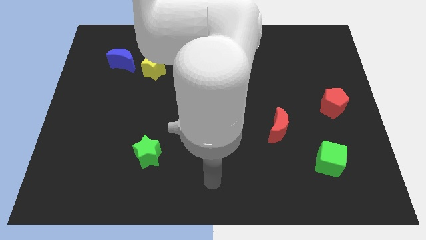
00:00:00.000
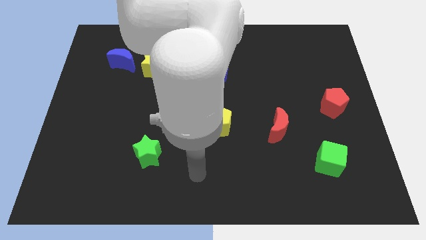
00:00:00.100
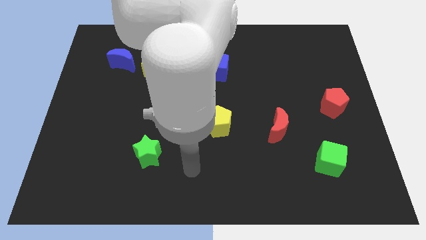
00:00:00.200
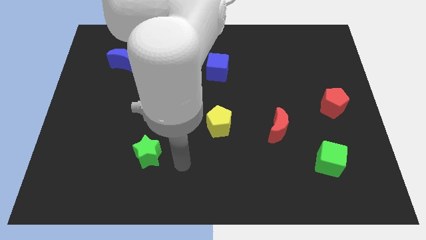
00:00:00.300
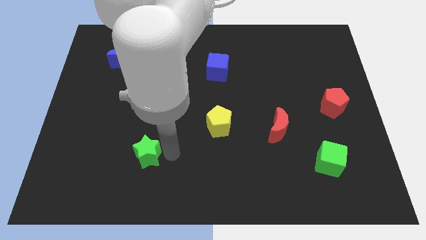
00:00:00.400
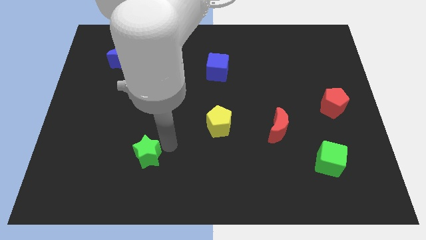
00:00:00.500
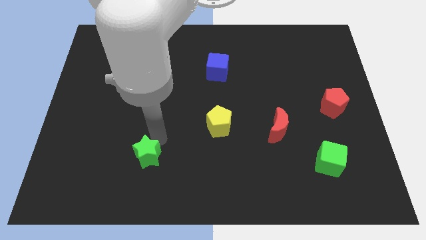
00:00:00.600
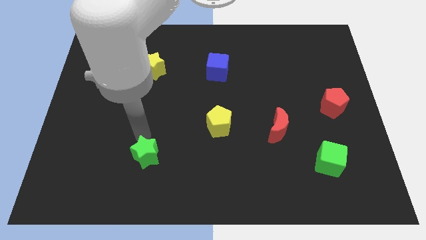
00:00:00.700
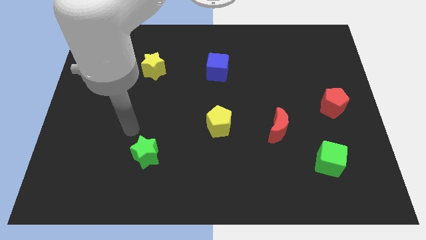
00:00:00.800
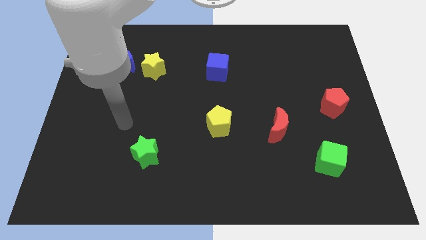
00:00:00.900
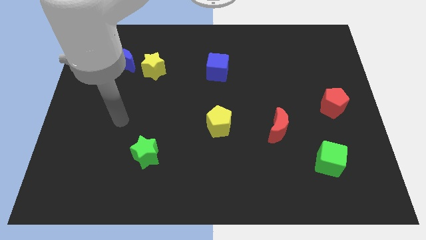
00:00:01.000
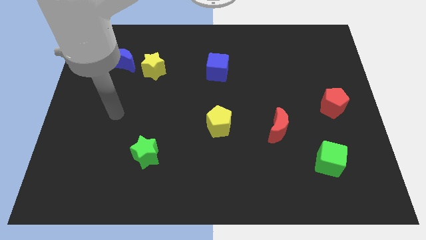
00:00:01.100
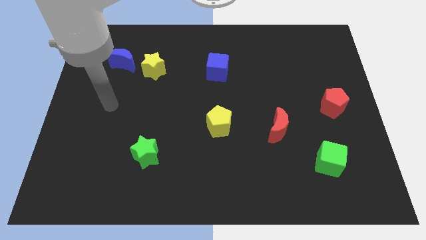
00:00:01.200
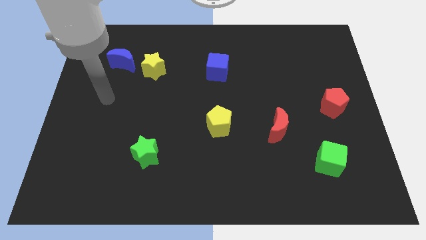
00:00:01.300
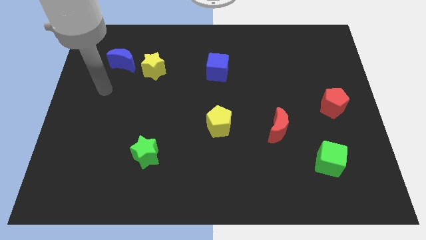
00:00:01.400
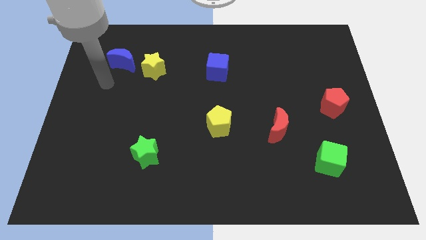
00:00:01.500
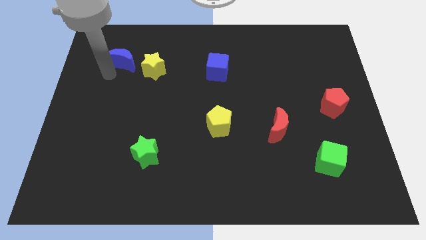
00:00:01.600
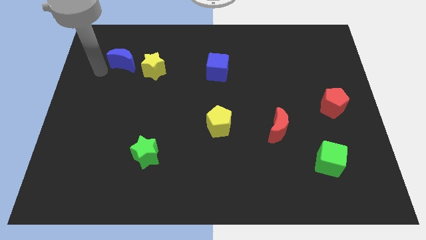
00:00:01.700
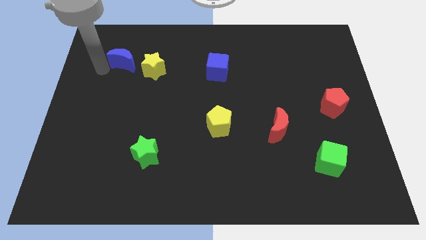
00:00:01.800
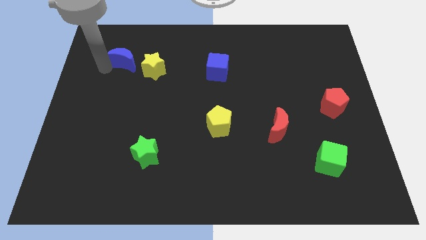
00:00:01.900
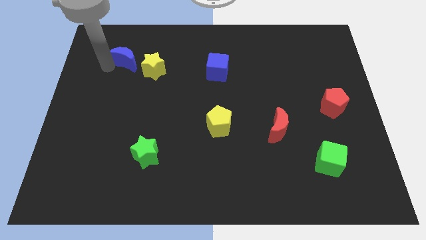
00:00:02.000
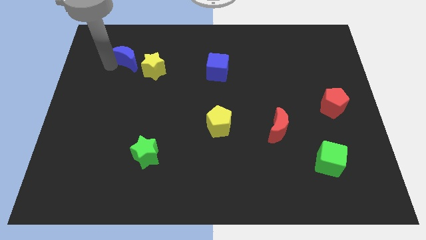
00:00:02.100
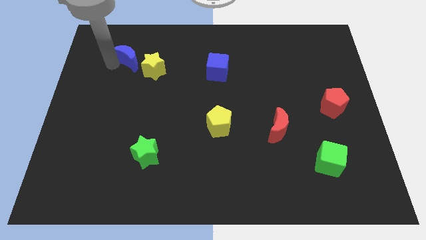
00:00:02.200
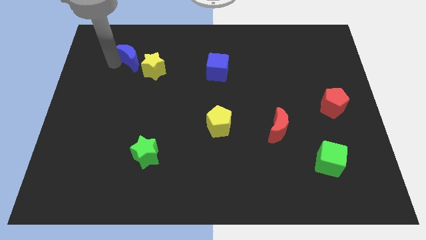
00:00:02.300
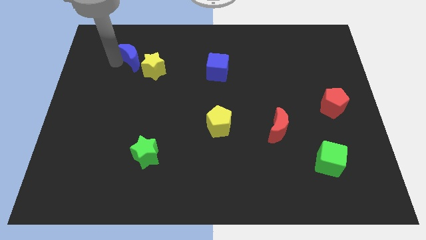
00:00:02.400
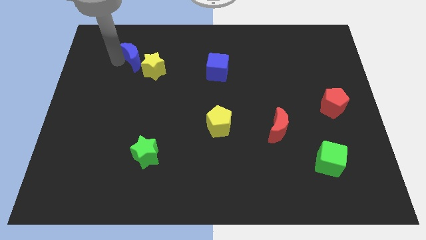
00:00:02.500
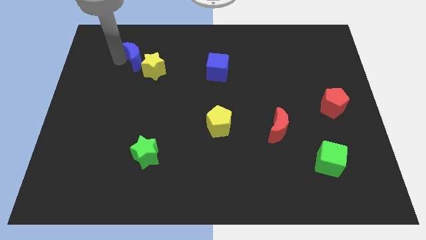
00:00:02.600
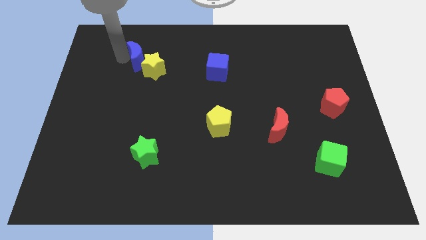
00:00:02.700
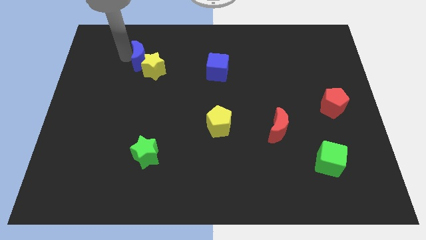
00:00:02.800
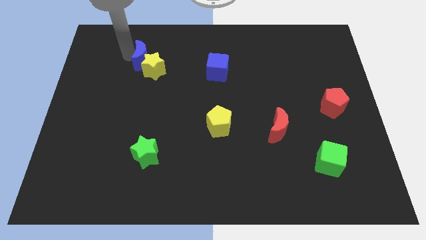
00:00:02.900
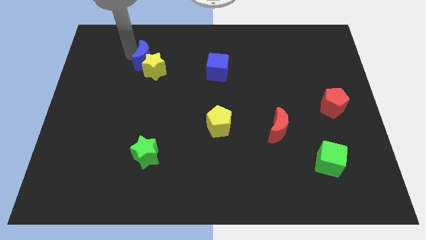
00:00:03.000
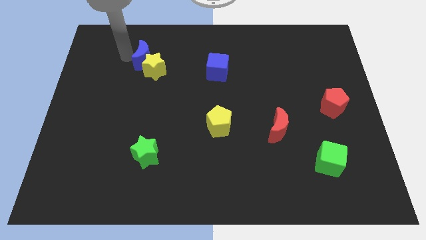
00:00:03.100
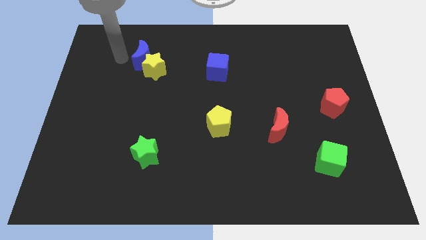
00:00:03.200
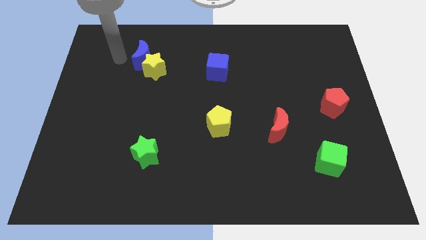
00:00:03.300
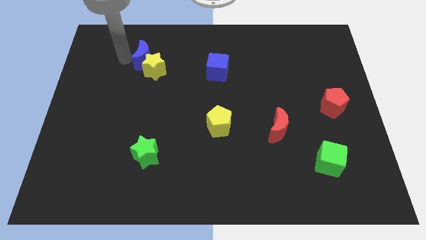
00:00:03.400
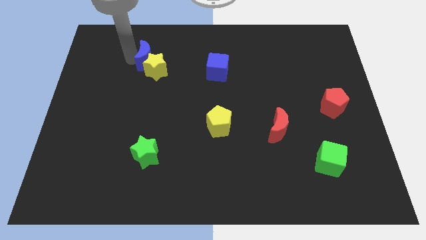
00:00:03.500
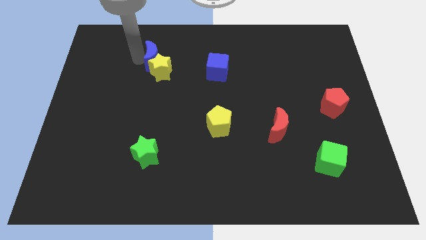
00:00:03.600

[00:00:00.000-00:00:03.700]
move the blue moon a little bit to the right

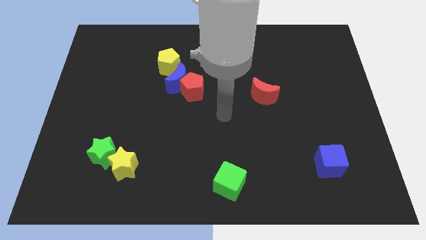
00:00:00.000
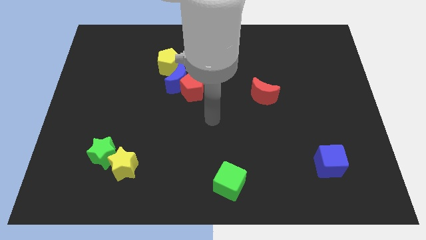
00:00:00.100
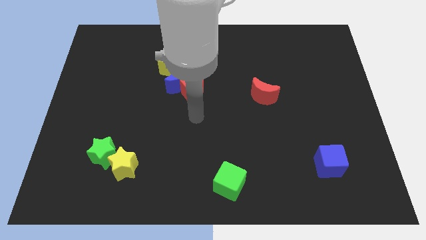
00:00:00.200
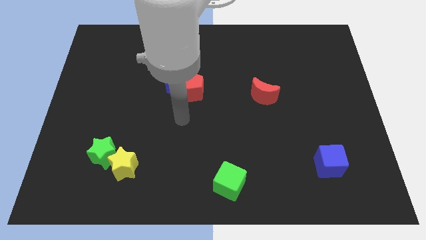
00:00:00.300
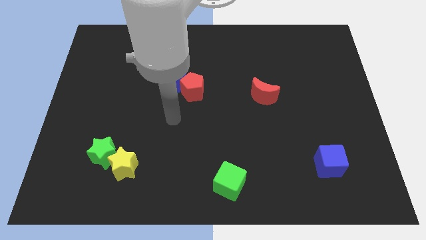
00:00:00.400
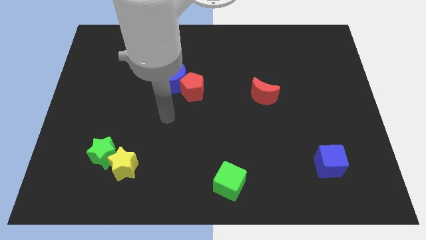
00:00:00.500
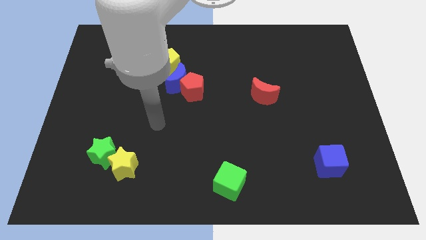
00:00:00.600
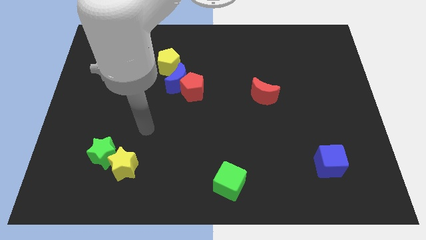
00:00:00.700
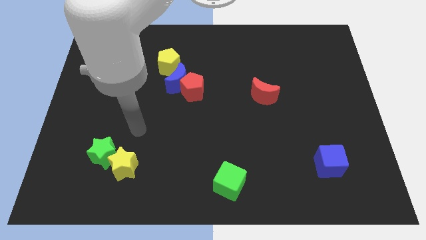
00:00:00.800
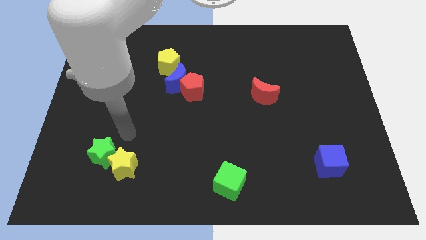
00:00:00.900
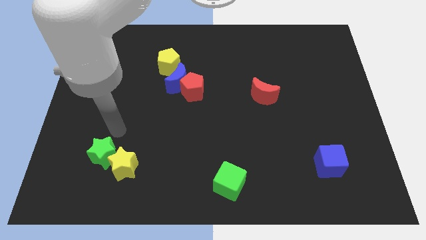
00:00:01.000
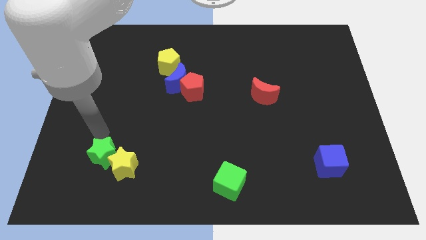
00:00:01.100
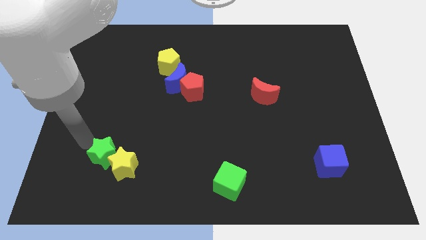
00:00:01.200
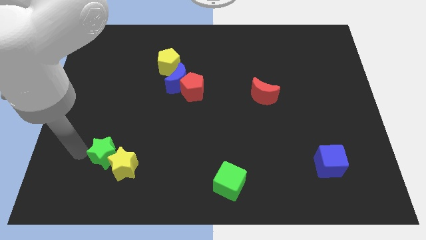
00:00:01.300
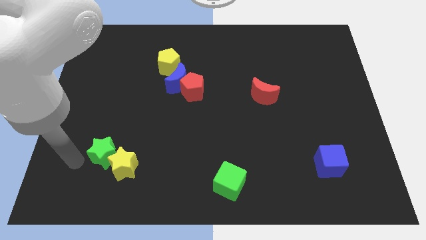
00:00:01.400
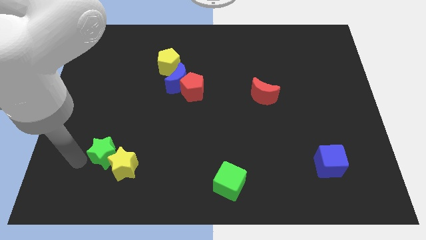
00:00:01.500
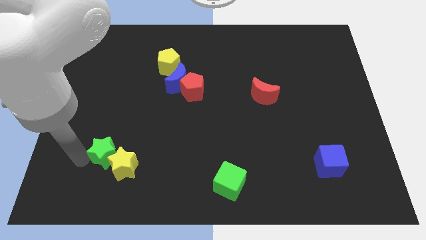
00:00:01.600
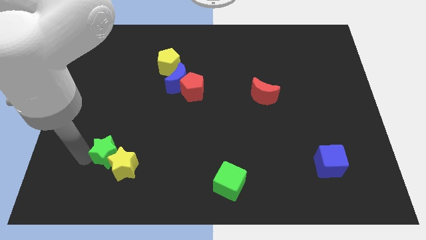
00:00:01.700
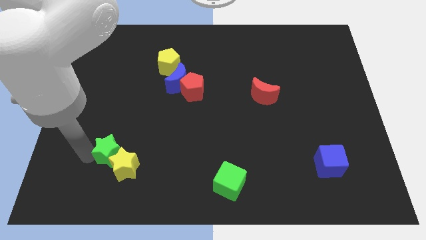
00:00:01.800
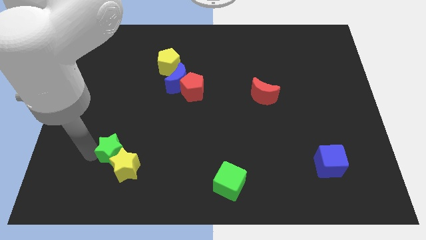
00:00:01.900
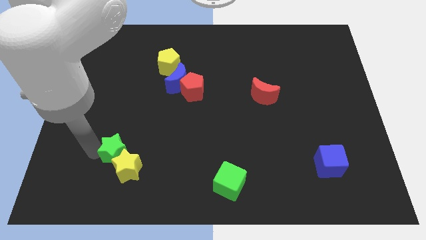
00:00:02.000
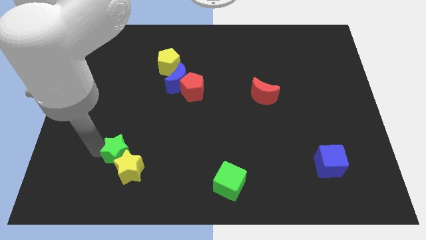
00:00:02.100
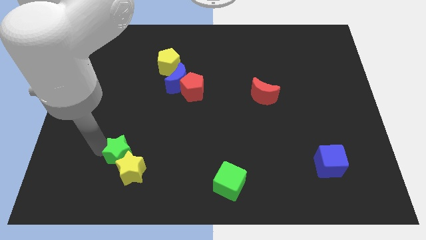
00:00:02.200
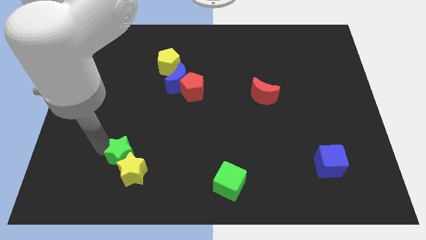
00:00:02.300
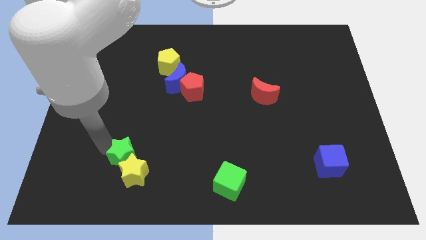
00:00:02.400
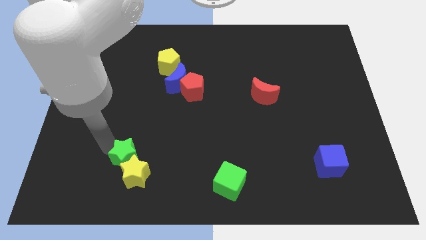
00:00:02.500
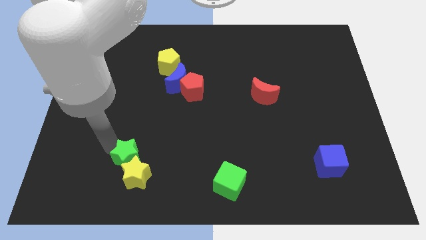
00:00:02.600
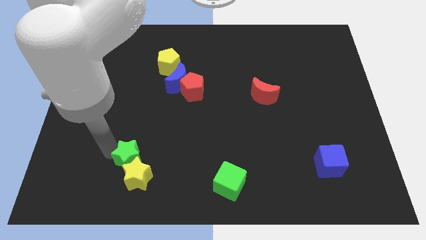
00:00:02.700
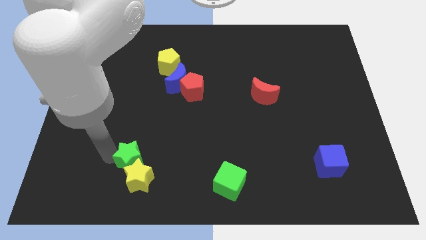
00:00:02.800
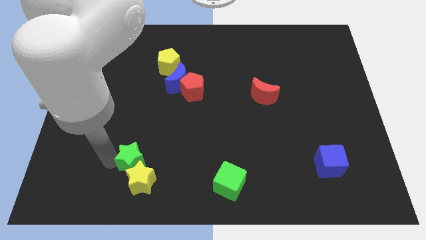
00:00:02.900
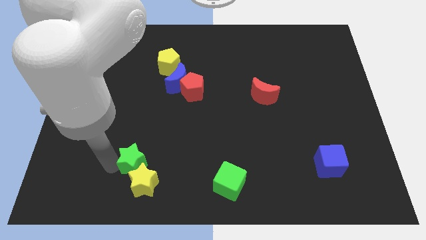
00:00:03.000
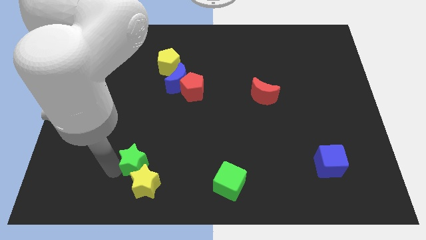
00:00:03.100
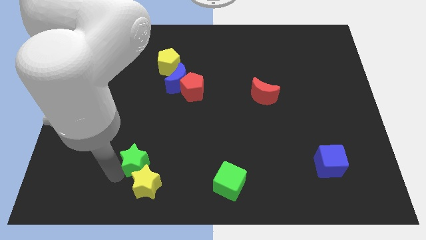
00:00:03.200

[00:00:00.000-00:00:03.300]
slightly move the green star to the right

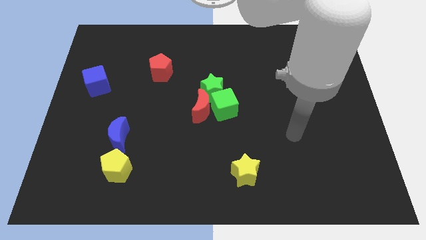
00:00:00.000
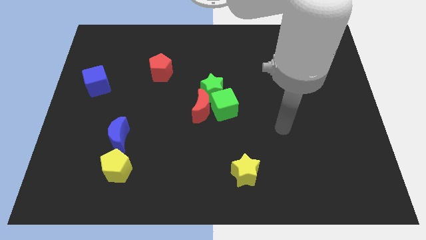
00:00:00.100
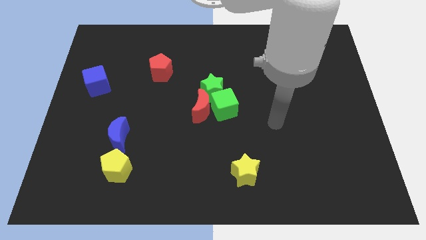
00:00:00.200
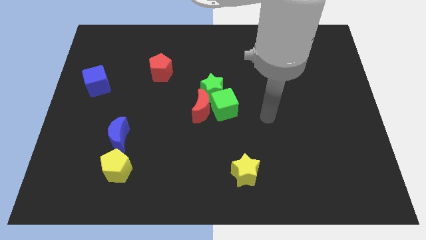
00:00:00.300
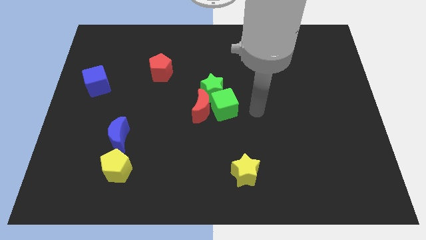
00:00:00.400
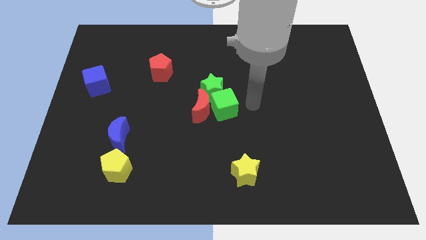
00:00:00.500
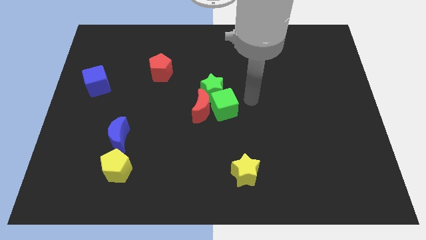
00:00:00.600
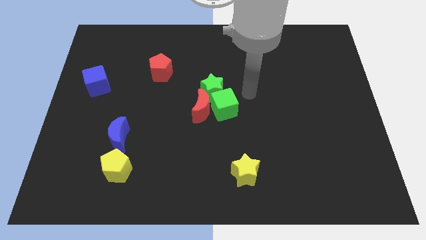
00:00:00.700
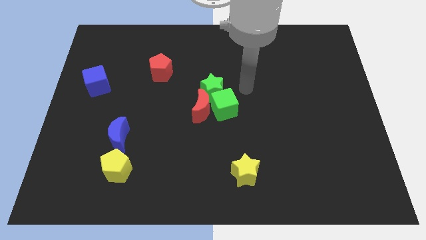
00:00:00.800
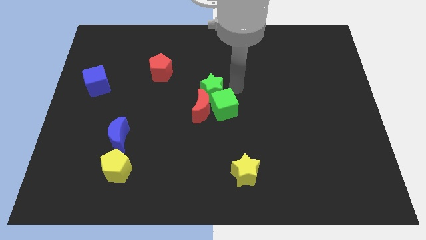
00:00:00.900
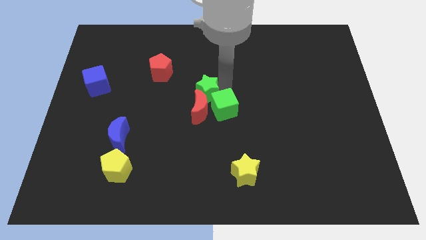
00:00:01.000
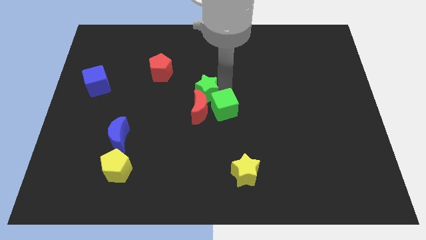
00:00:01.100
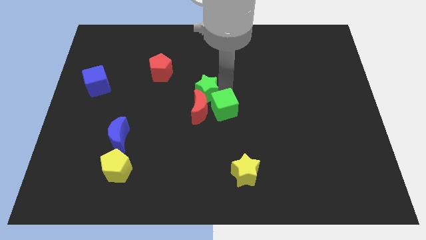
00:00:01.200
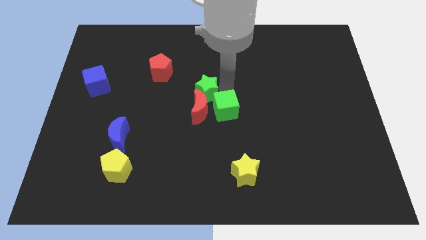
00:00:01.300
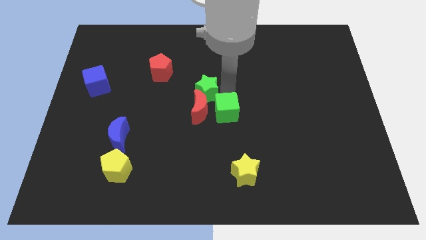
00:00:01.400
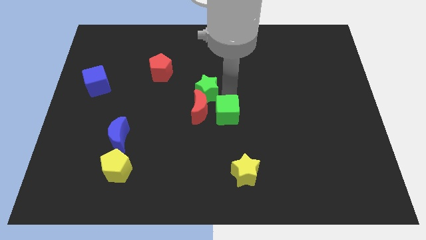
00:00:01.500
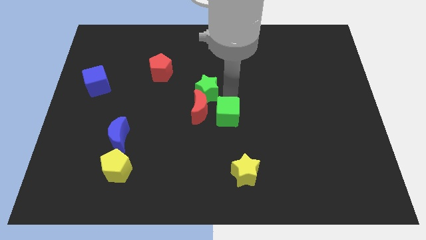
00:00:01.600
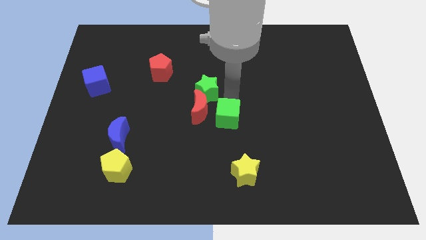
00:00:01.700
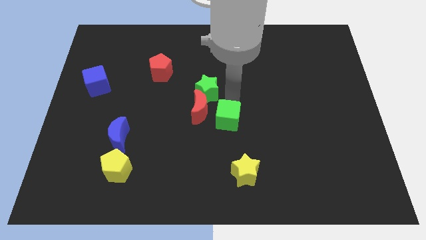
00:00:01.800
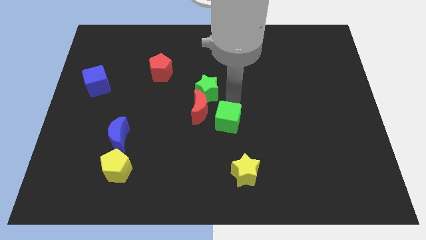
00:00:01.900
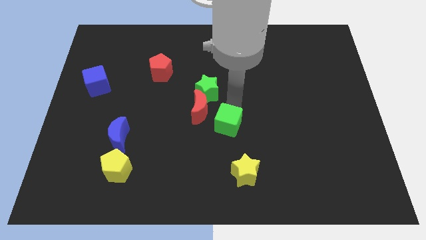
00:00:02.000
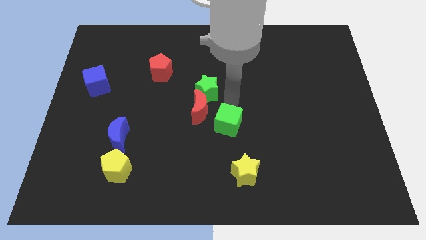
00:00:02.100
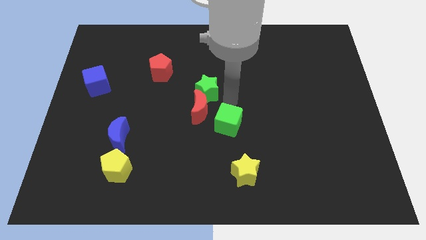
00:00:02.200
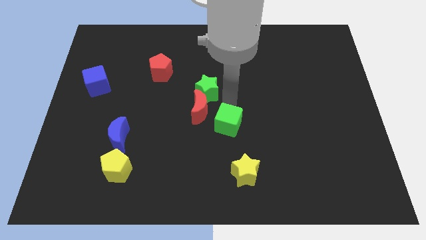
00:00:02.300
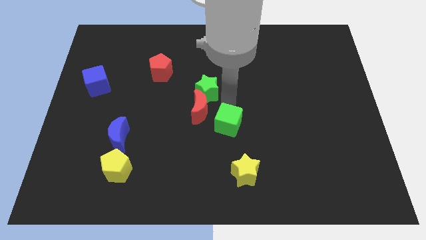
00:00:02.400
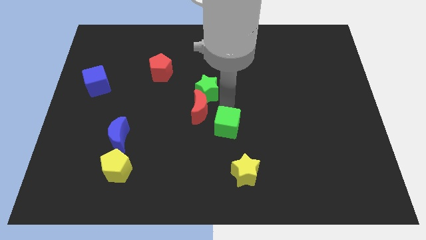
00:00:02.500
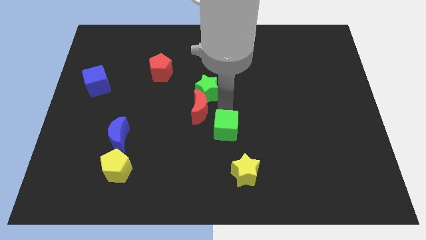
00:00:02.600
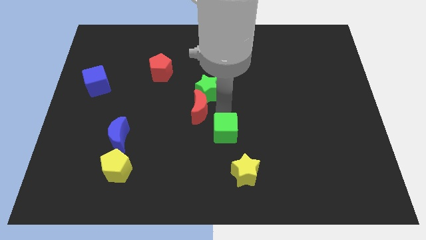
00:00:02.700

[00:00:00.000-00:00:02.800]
slightly slide the green cube down
